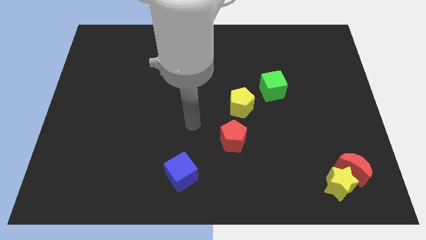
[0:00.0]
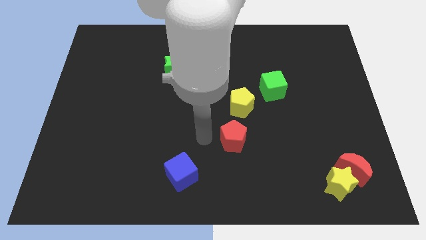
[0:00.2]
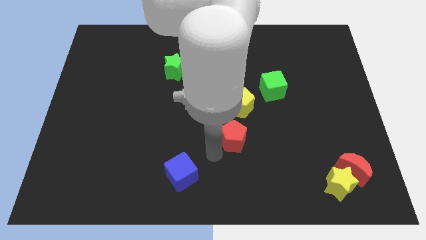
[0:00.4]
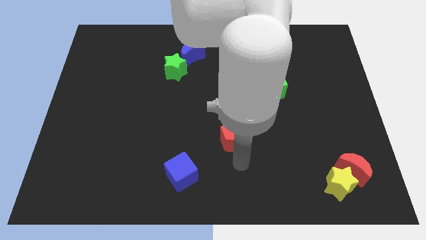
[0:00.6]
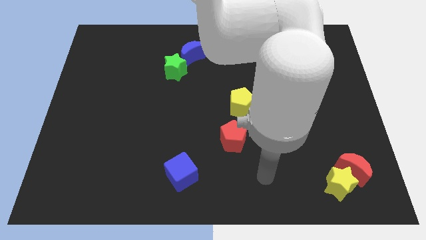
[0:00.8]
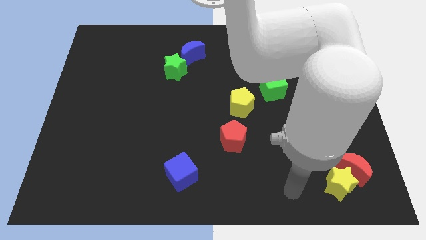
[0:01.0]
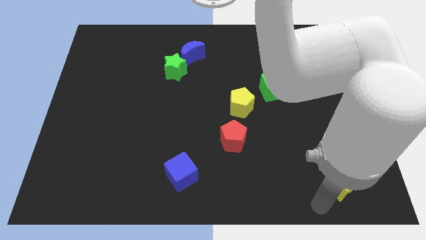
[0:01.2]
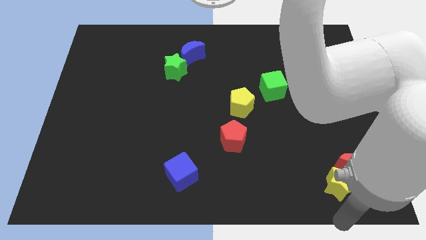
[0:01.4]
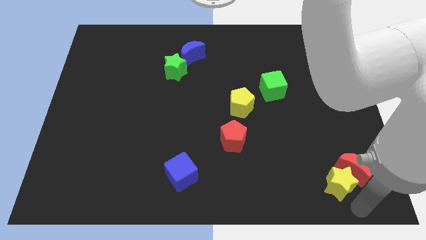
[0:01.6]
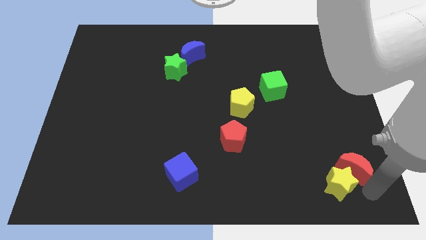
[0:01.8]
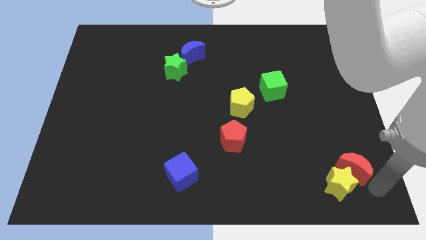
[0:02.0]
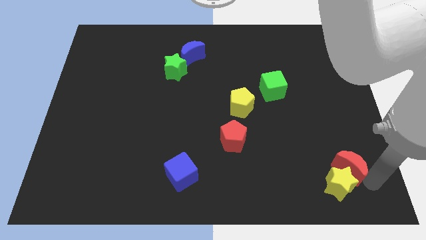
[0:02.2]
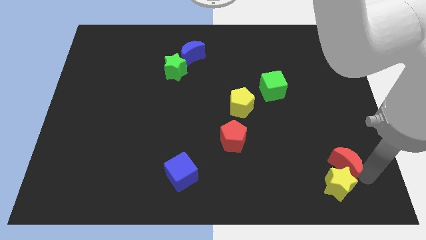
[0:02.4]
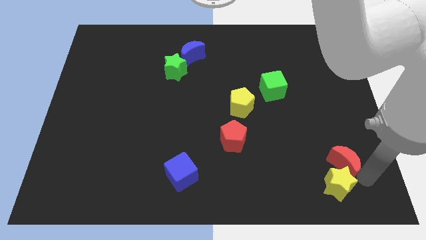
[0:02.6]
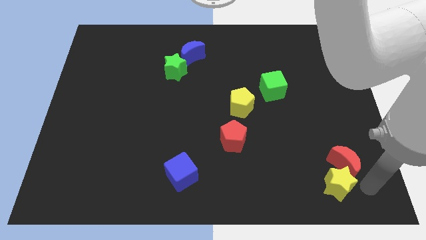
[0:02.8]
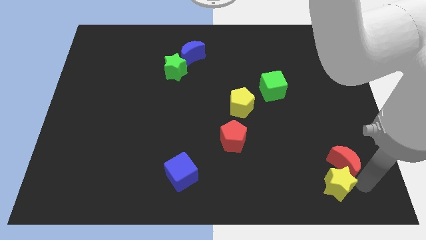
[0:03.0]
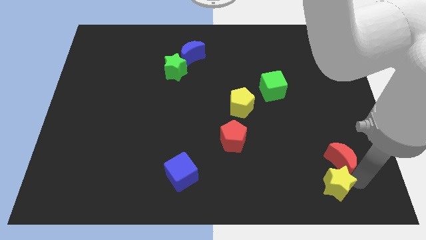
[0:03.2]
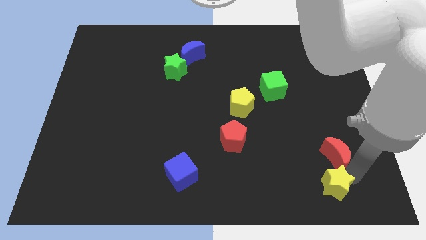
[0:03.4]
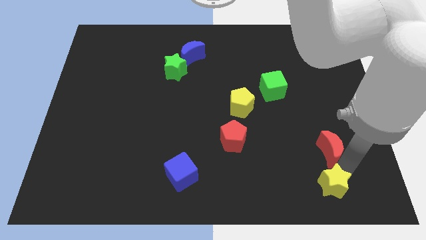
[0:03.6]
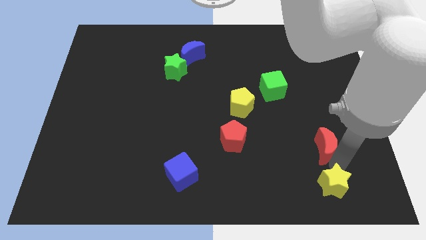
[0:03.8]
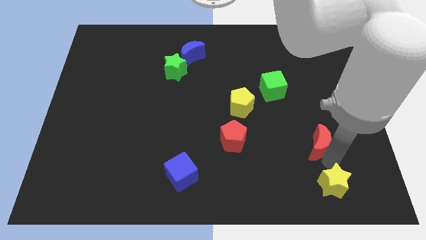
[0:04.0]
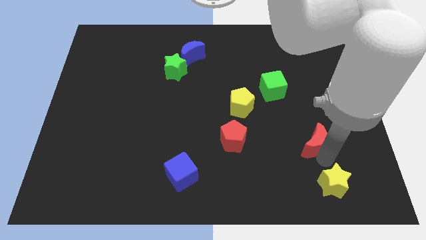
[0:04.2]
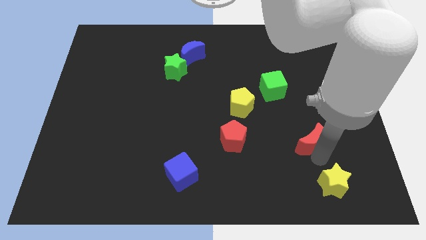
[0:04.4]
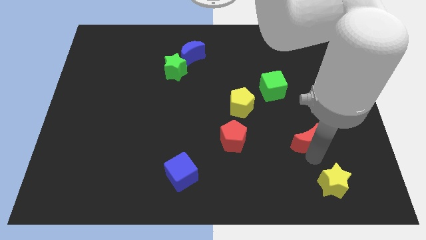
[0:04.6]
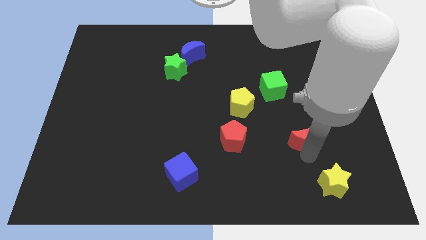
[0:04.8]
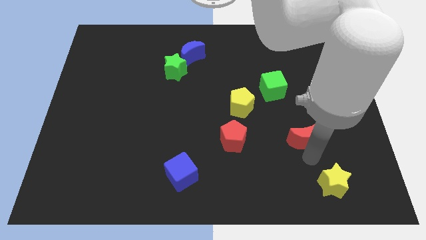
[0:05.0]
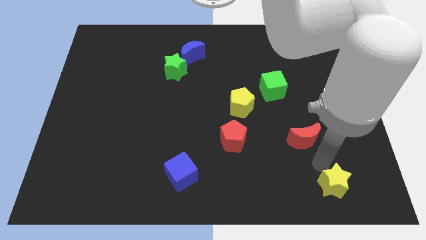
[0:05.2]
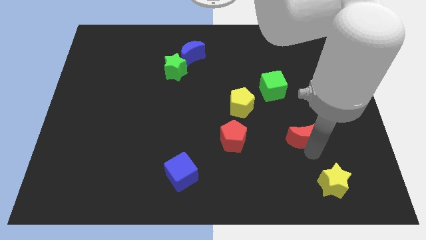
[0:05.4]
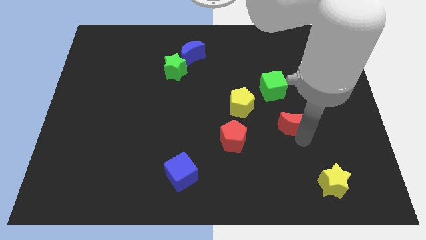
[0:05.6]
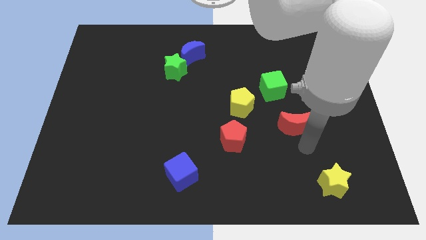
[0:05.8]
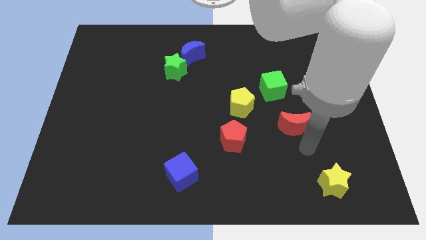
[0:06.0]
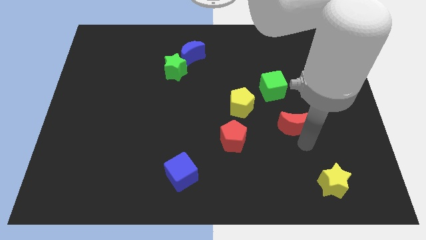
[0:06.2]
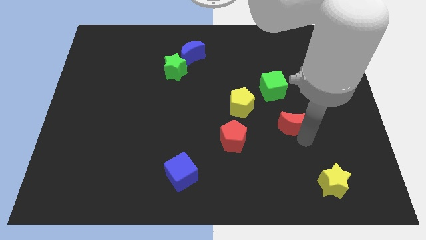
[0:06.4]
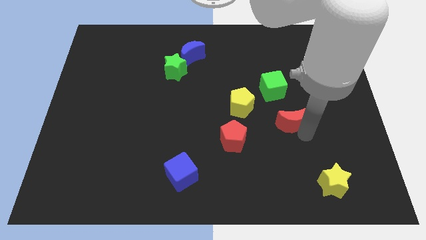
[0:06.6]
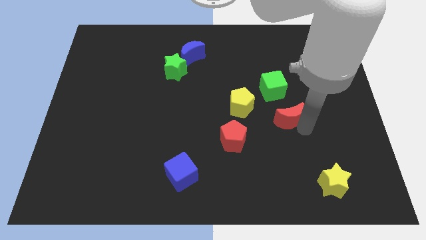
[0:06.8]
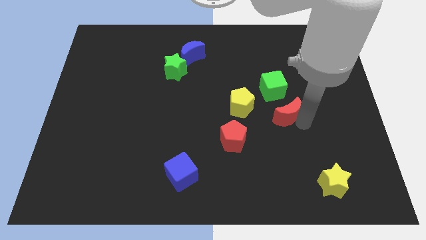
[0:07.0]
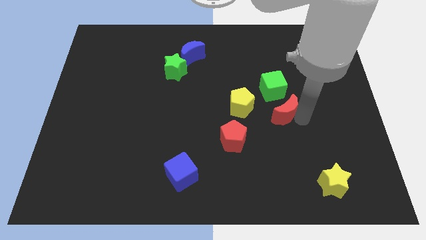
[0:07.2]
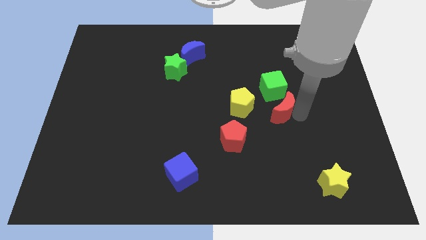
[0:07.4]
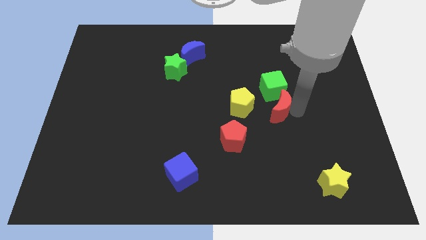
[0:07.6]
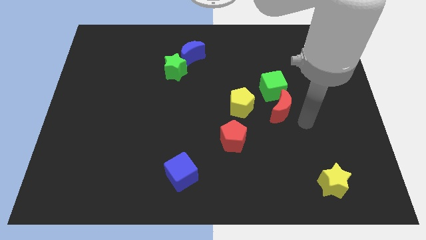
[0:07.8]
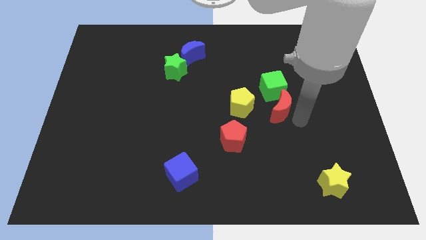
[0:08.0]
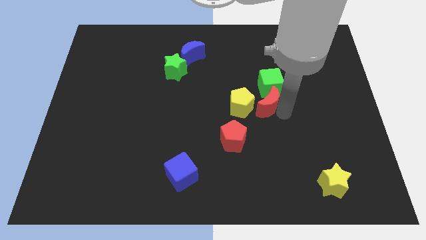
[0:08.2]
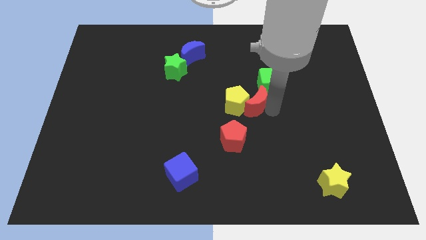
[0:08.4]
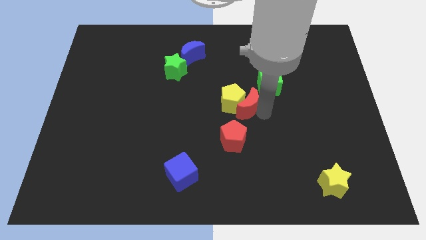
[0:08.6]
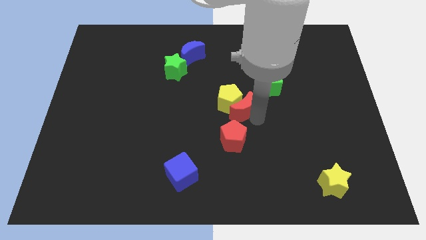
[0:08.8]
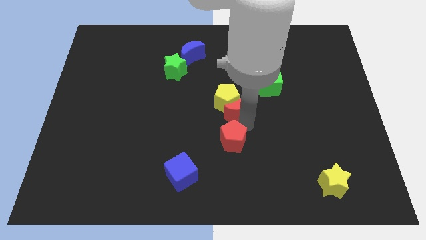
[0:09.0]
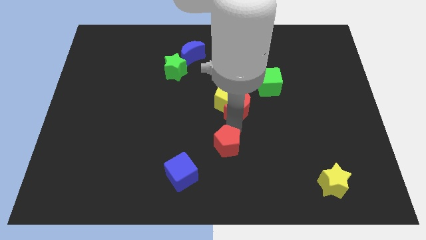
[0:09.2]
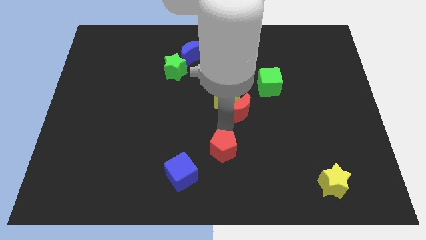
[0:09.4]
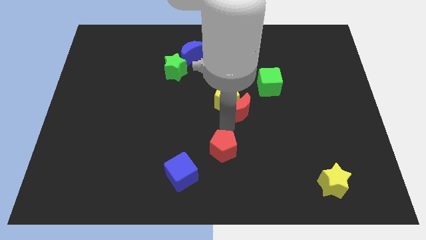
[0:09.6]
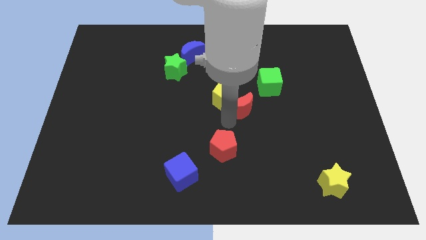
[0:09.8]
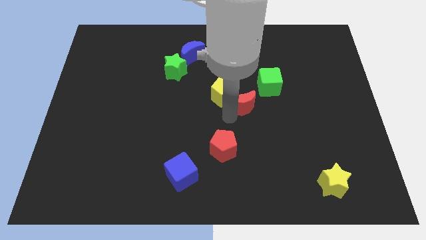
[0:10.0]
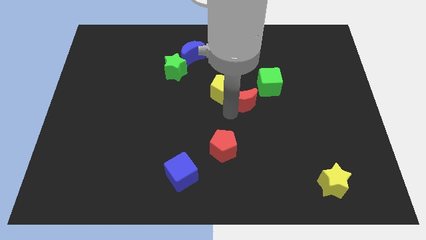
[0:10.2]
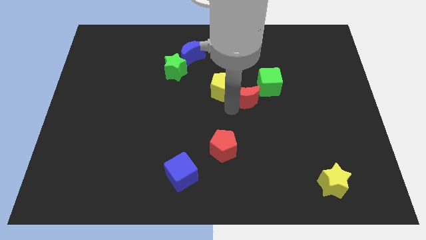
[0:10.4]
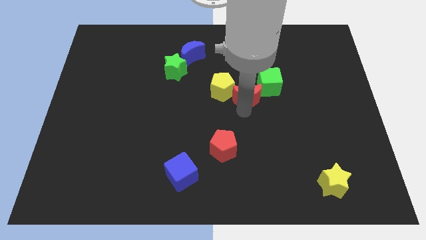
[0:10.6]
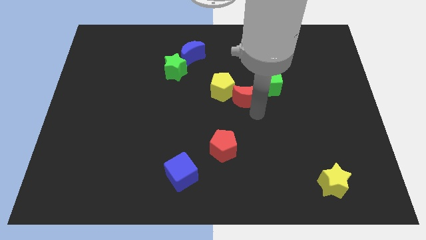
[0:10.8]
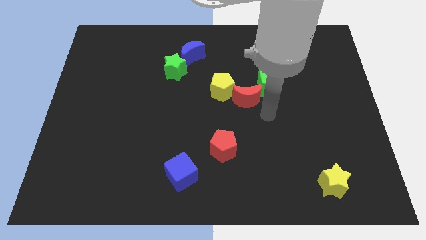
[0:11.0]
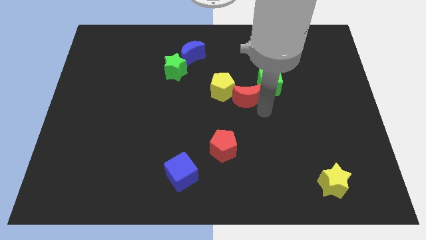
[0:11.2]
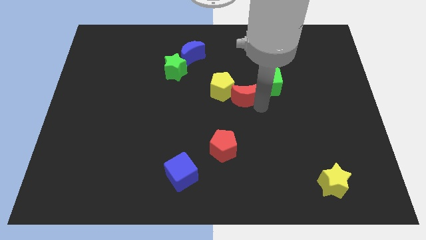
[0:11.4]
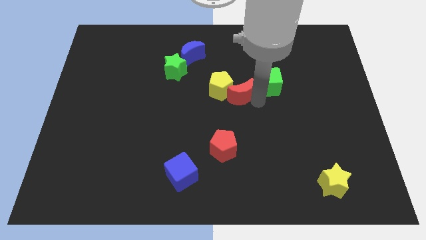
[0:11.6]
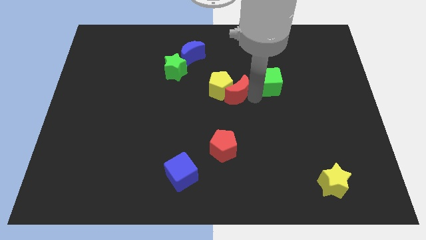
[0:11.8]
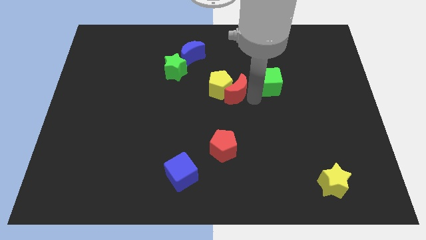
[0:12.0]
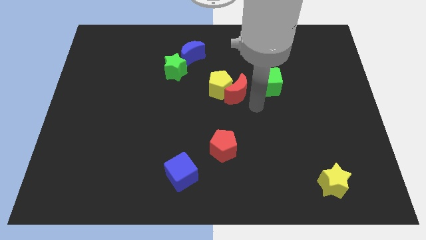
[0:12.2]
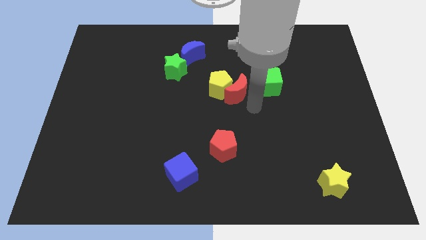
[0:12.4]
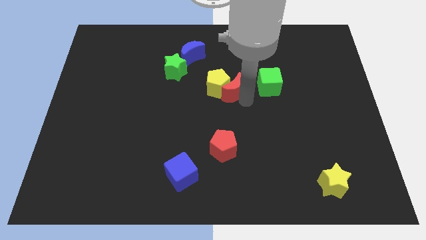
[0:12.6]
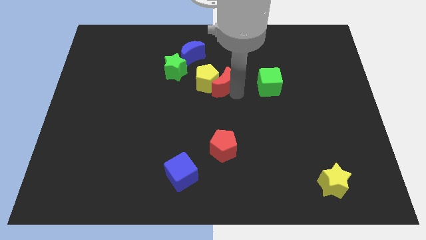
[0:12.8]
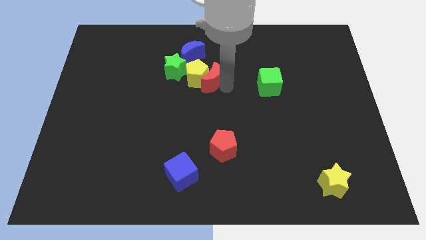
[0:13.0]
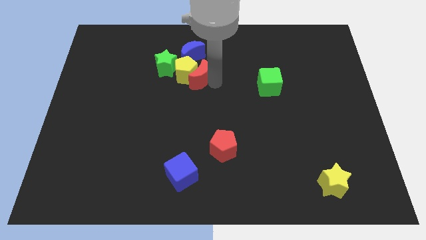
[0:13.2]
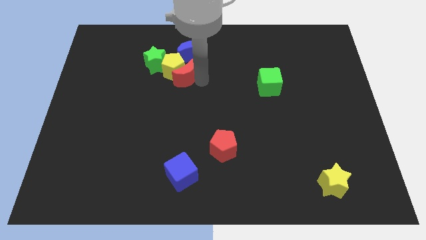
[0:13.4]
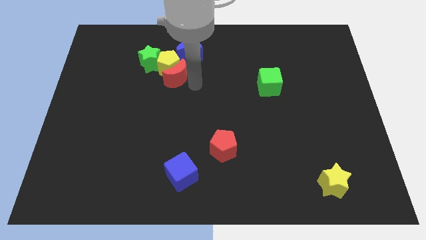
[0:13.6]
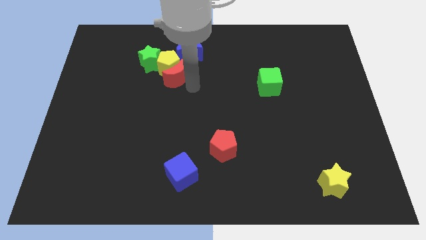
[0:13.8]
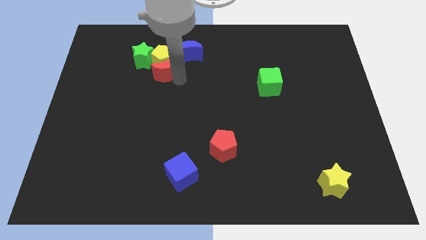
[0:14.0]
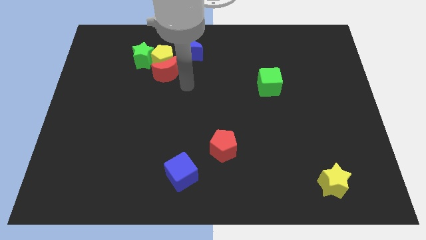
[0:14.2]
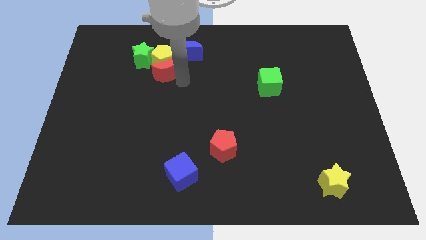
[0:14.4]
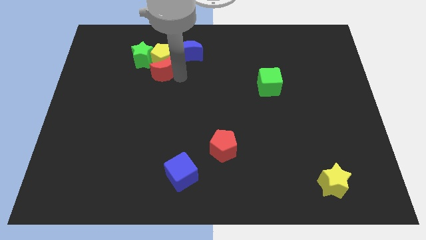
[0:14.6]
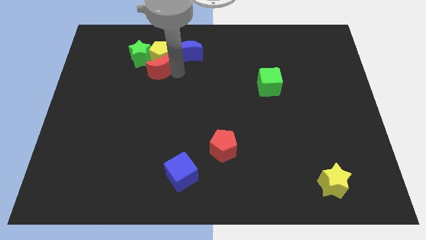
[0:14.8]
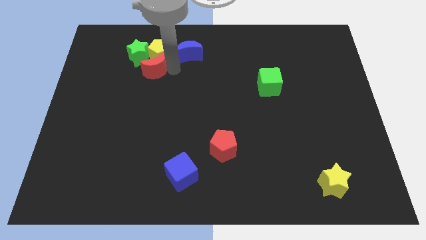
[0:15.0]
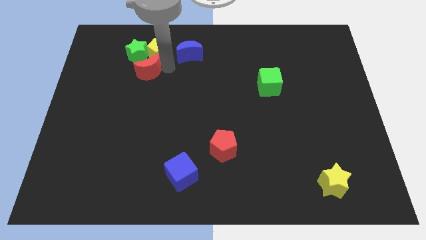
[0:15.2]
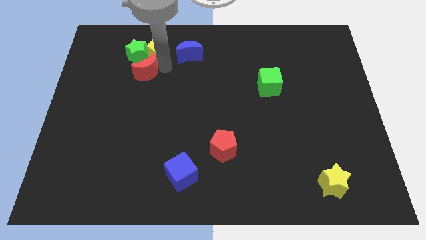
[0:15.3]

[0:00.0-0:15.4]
push the red moon towards the green star
